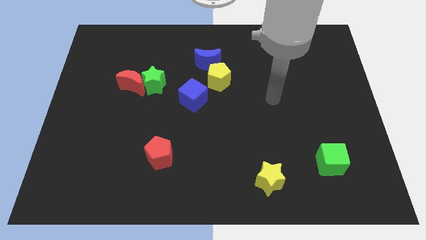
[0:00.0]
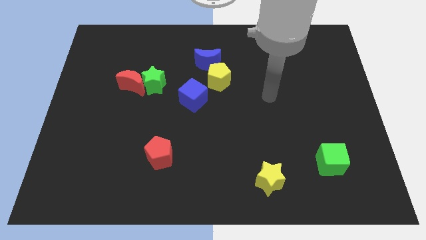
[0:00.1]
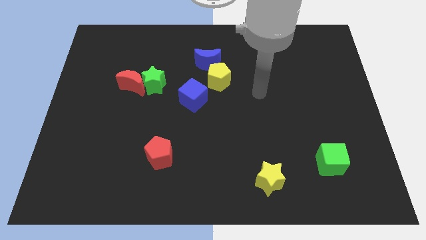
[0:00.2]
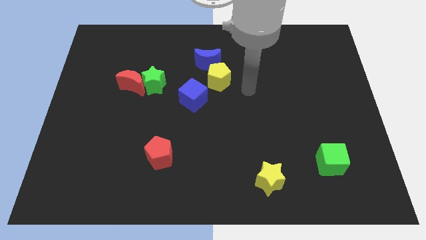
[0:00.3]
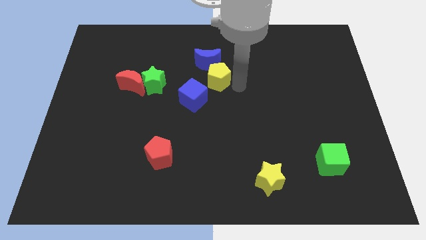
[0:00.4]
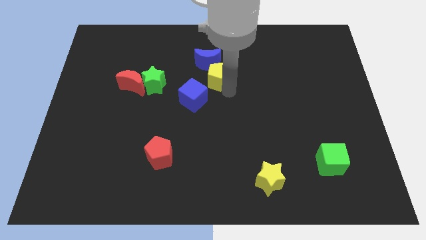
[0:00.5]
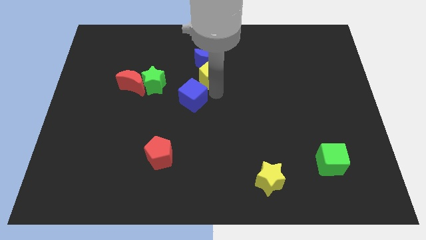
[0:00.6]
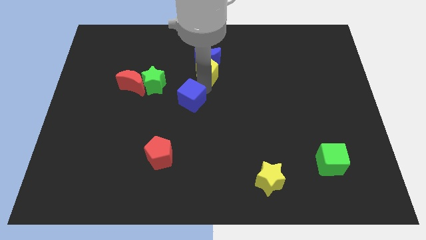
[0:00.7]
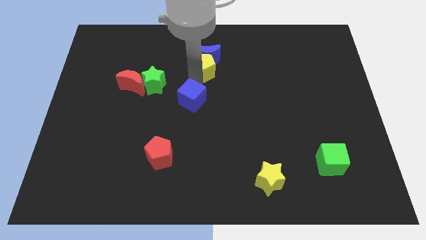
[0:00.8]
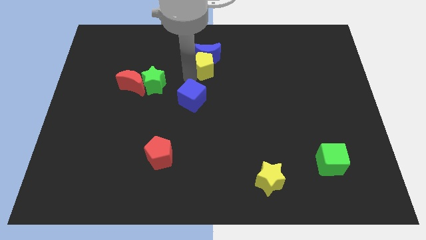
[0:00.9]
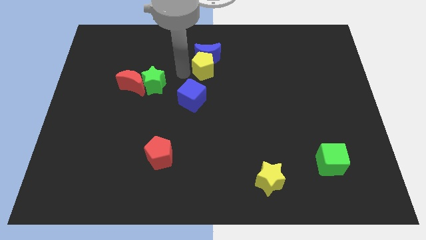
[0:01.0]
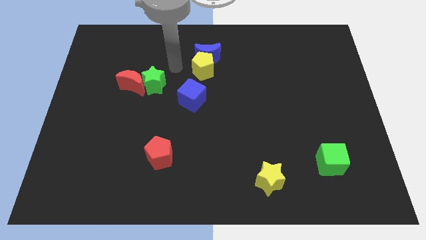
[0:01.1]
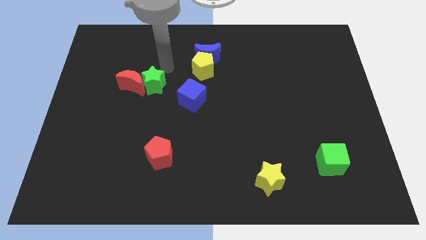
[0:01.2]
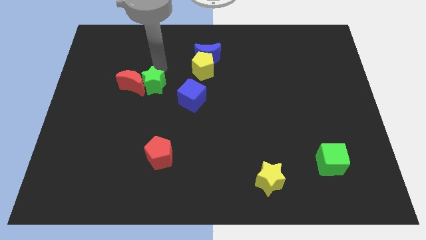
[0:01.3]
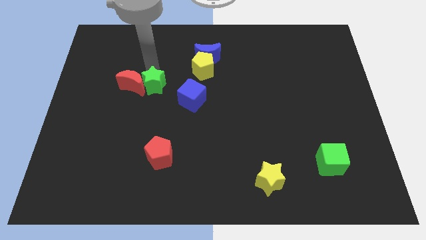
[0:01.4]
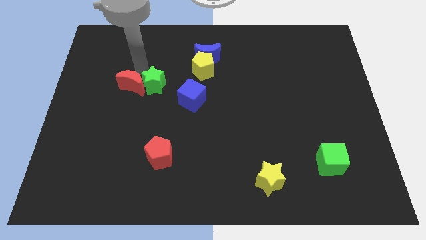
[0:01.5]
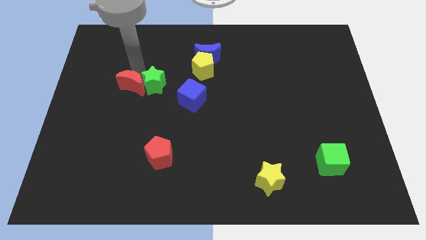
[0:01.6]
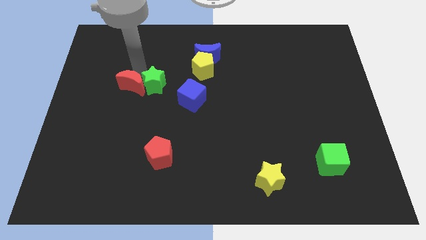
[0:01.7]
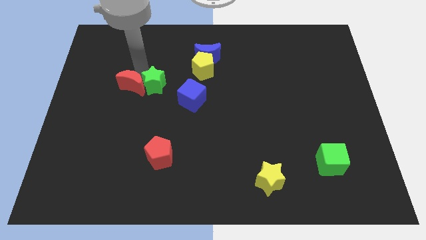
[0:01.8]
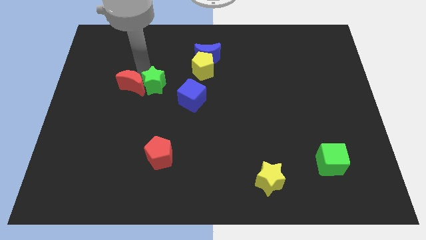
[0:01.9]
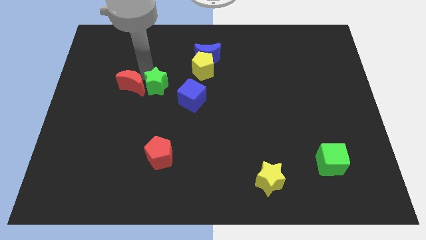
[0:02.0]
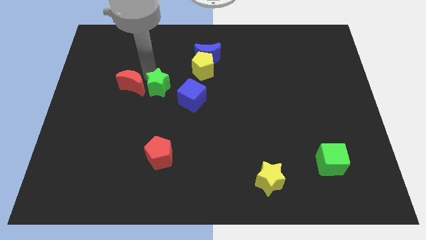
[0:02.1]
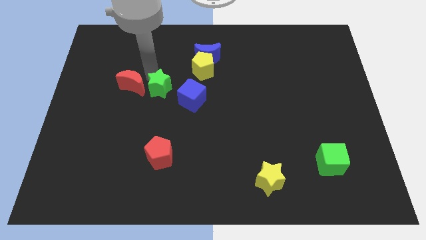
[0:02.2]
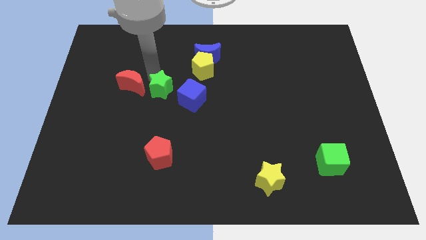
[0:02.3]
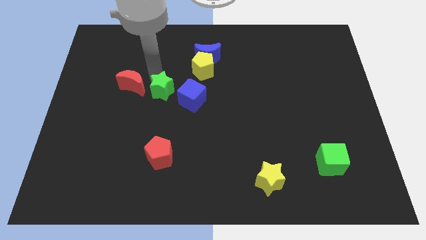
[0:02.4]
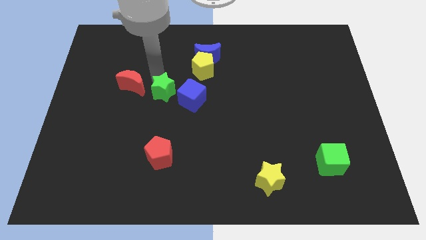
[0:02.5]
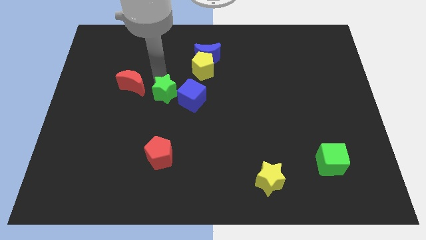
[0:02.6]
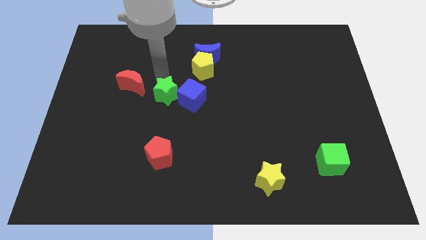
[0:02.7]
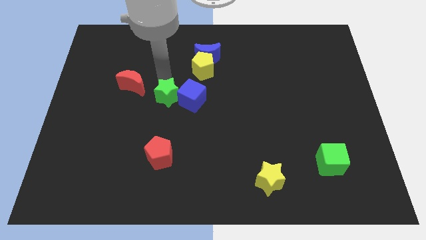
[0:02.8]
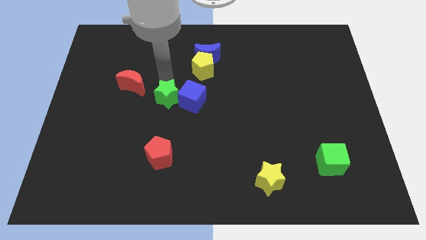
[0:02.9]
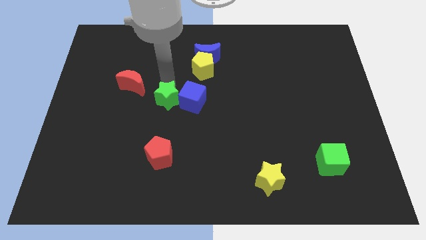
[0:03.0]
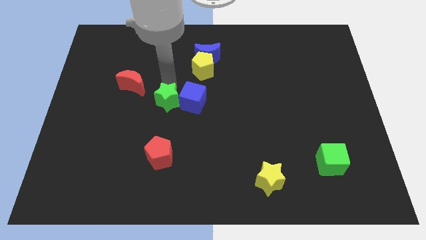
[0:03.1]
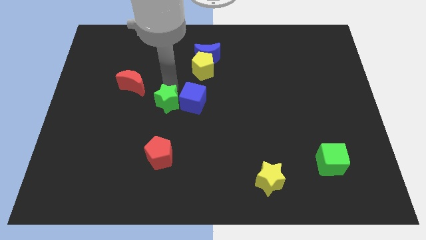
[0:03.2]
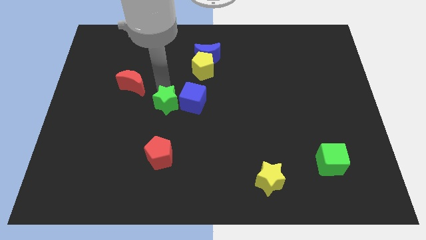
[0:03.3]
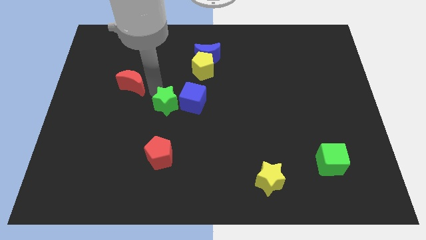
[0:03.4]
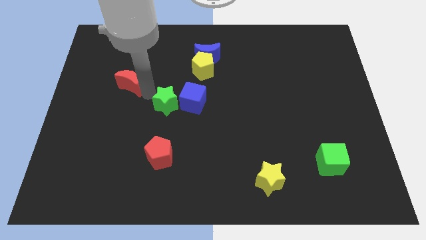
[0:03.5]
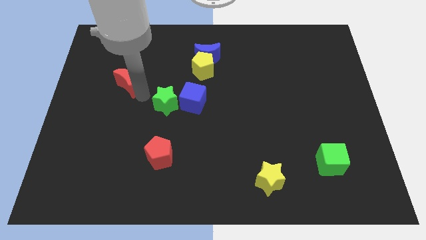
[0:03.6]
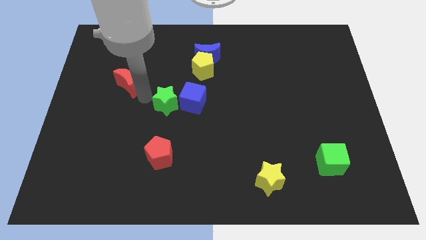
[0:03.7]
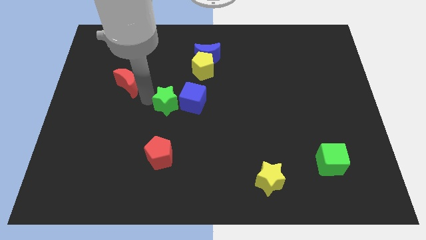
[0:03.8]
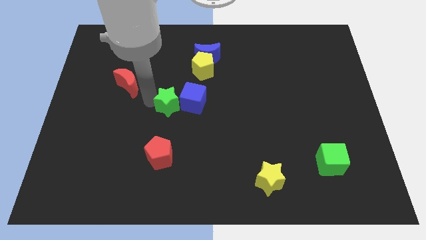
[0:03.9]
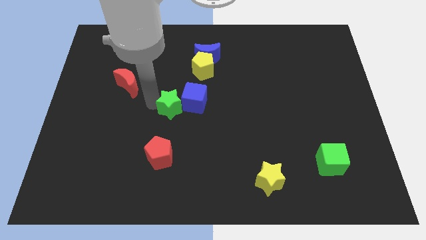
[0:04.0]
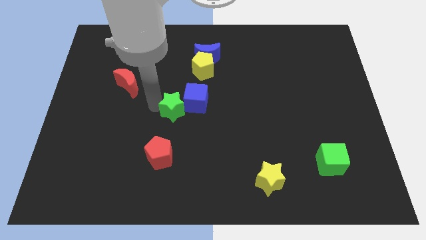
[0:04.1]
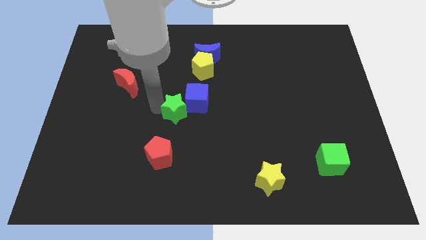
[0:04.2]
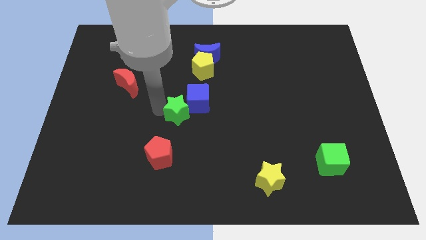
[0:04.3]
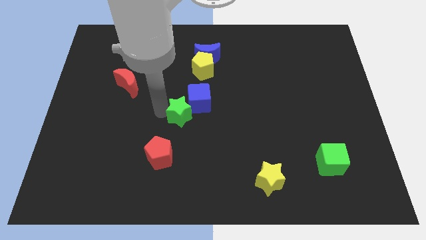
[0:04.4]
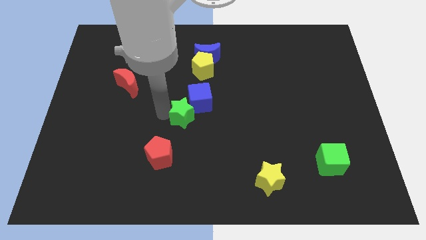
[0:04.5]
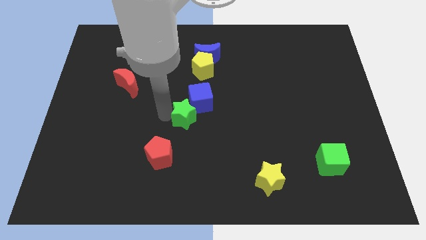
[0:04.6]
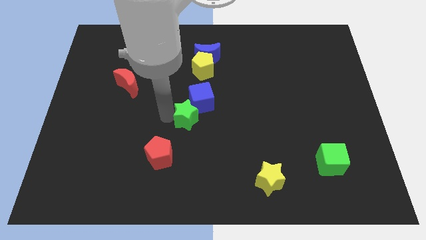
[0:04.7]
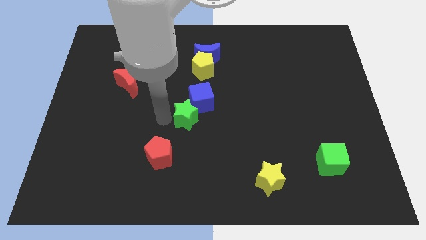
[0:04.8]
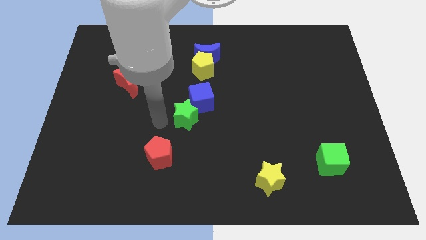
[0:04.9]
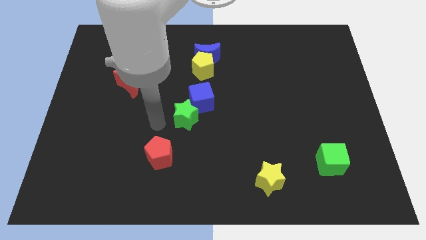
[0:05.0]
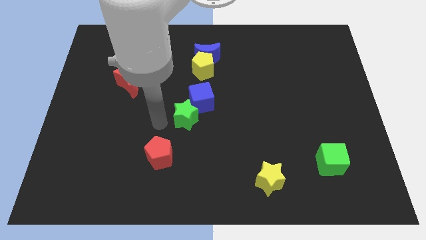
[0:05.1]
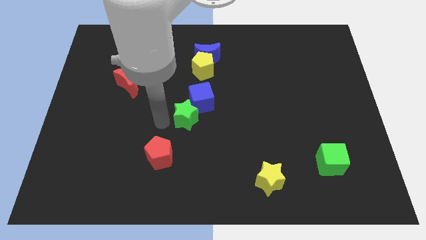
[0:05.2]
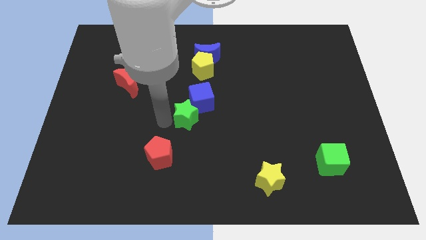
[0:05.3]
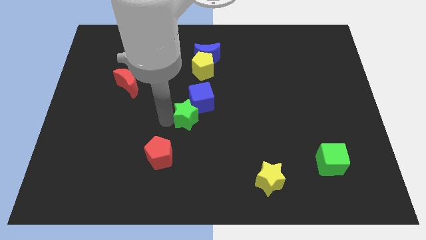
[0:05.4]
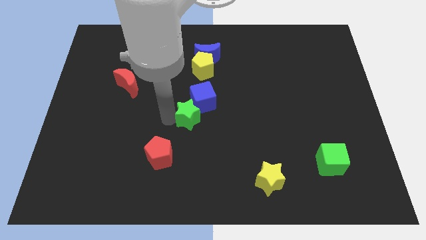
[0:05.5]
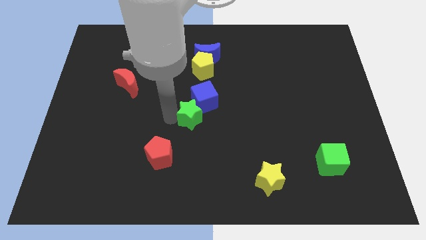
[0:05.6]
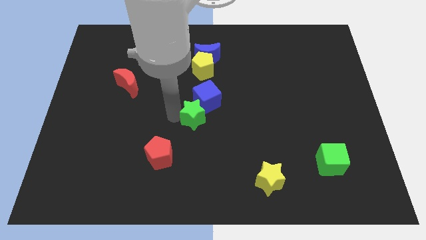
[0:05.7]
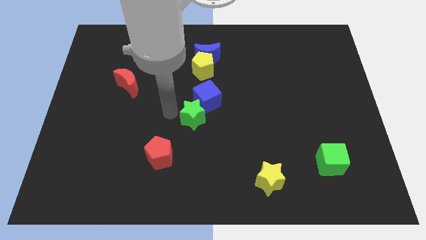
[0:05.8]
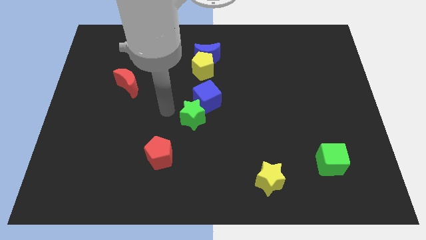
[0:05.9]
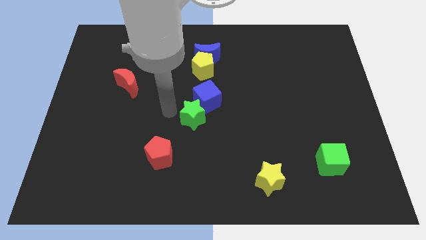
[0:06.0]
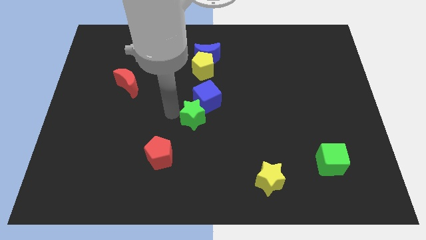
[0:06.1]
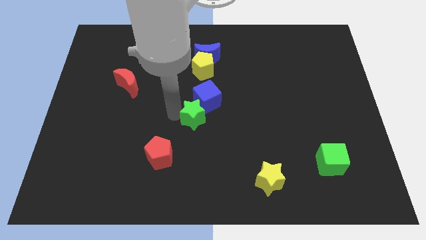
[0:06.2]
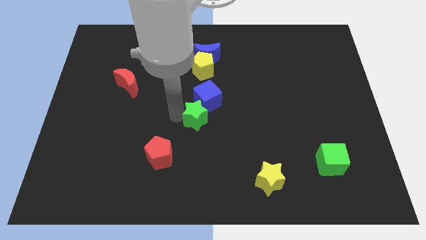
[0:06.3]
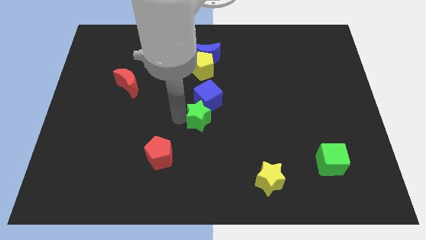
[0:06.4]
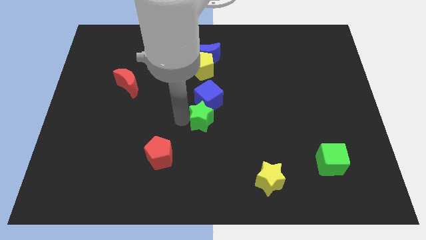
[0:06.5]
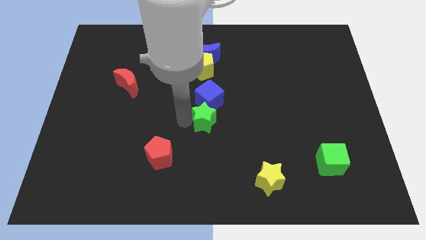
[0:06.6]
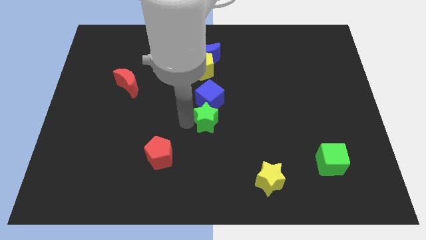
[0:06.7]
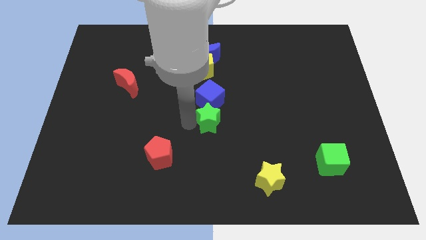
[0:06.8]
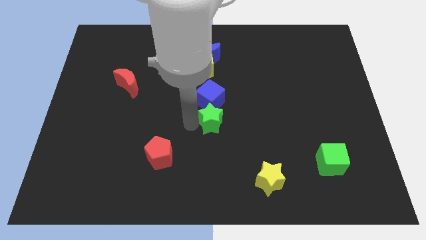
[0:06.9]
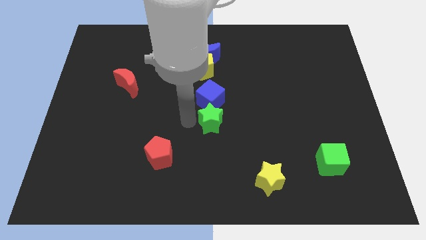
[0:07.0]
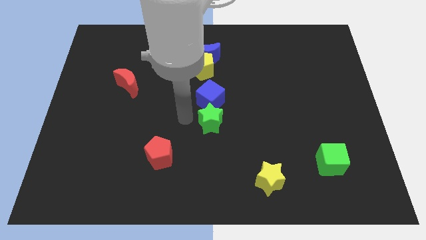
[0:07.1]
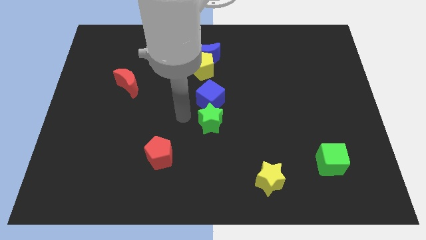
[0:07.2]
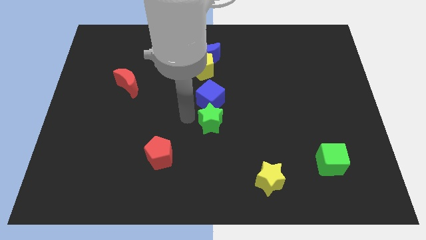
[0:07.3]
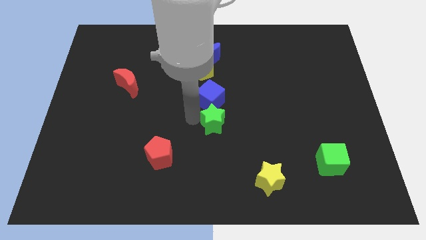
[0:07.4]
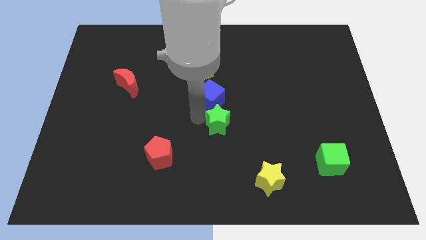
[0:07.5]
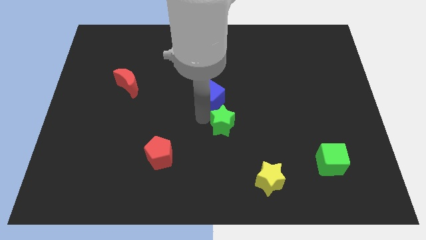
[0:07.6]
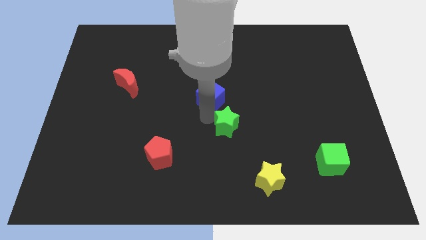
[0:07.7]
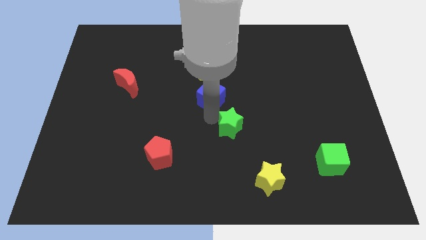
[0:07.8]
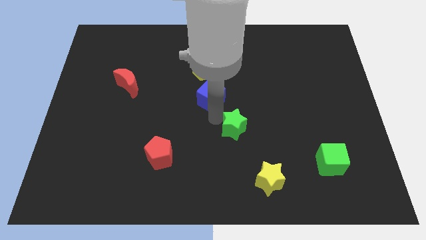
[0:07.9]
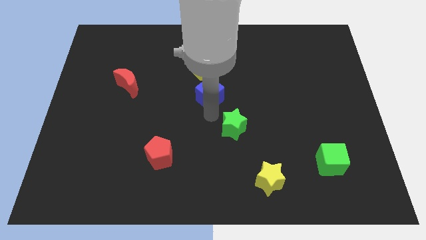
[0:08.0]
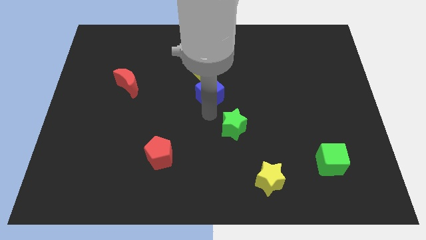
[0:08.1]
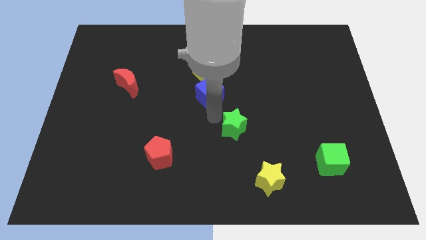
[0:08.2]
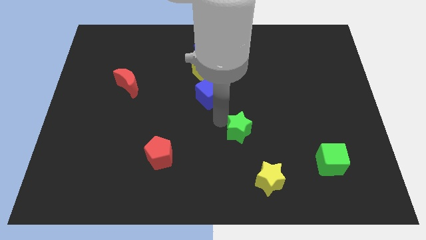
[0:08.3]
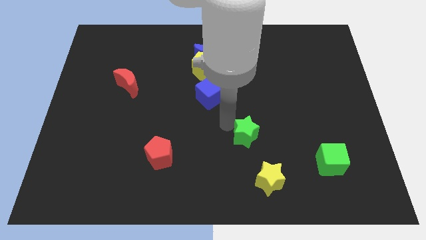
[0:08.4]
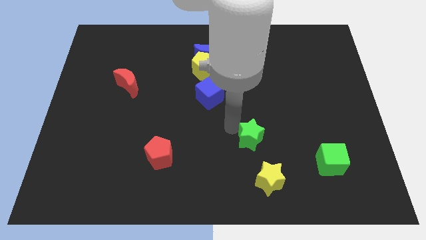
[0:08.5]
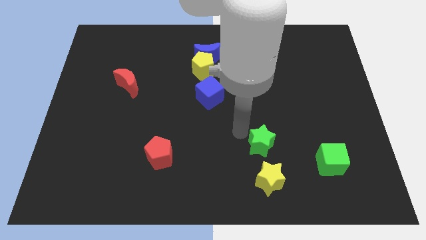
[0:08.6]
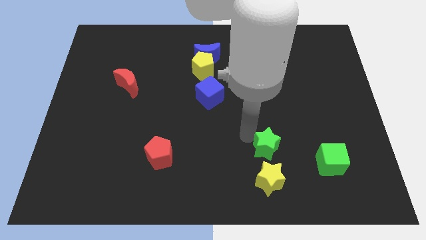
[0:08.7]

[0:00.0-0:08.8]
put the green star to the left of the green cube
